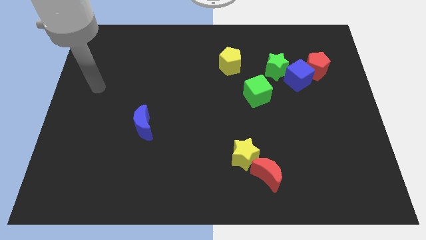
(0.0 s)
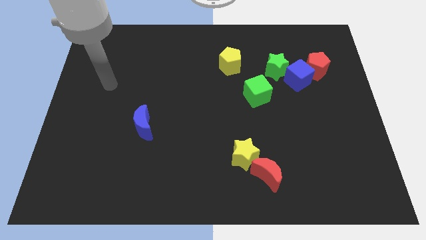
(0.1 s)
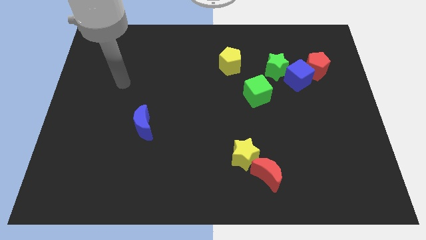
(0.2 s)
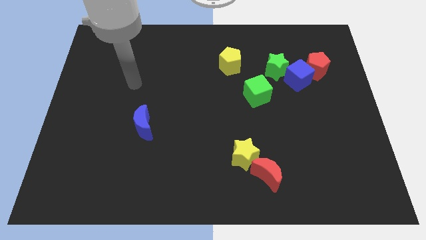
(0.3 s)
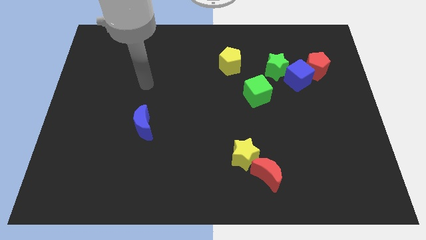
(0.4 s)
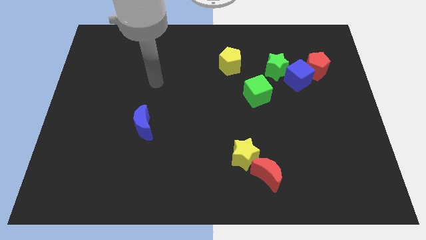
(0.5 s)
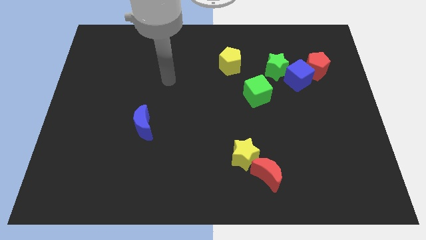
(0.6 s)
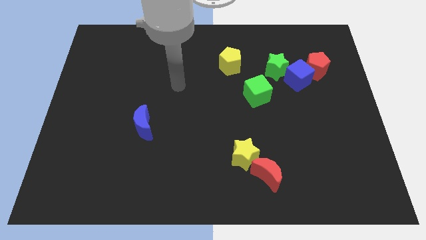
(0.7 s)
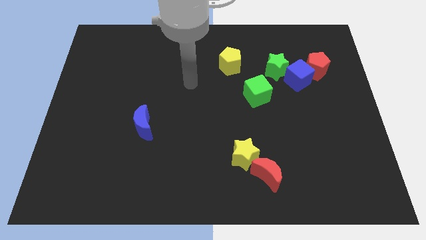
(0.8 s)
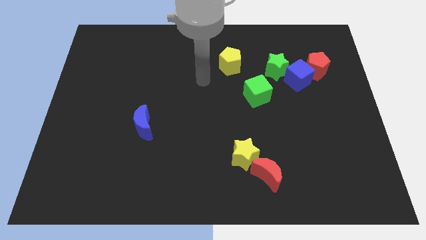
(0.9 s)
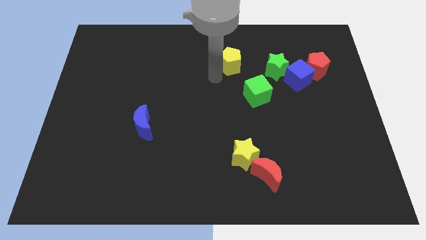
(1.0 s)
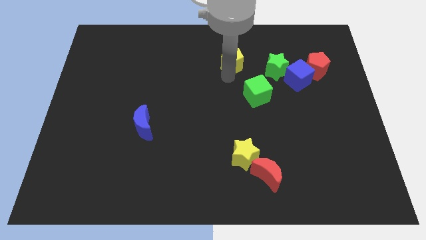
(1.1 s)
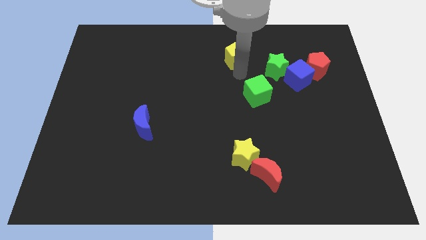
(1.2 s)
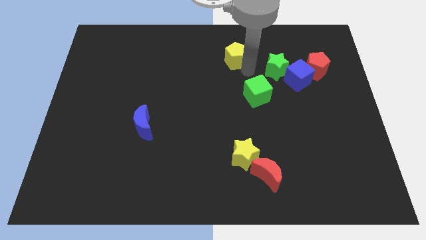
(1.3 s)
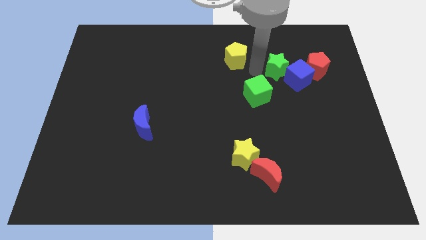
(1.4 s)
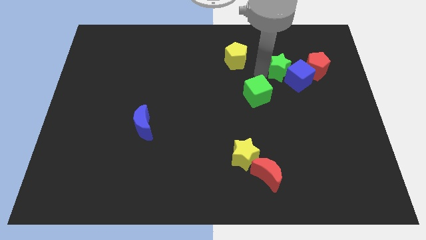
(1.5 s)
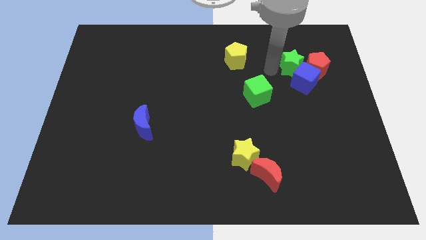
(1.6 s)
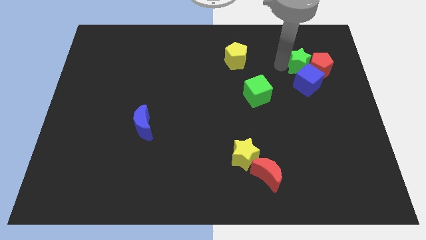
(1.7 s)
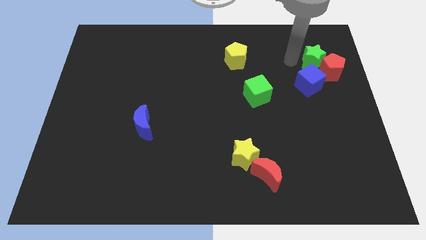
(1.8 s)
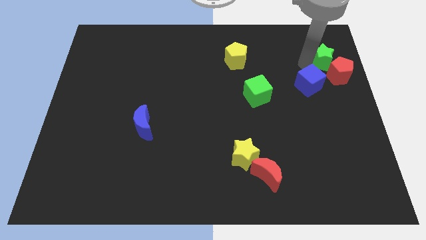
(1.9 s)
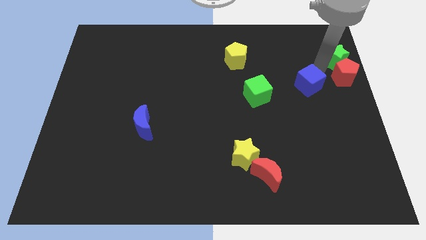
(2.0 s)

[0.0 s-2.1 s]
move the blue cube away from the red pentagon and green star

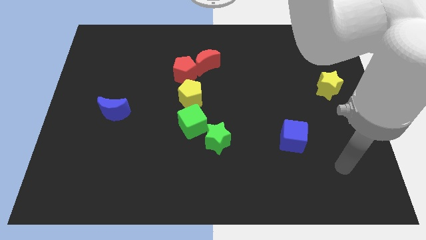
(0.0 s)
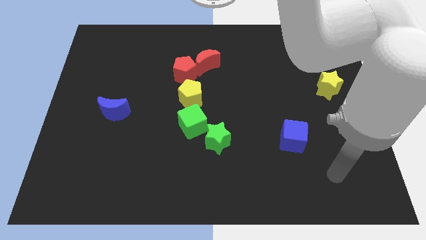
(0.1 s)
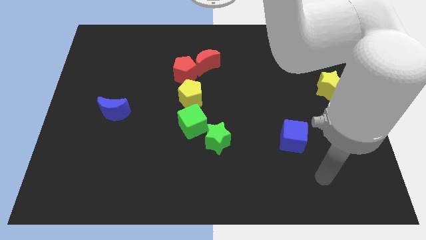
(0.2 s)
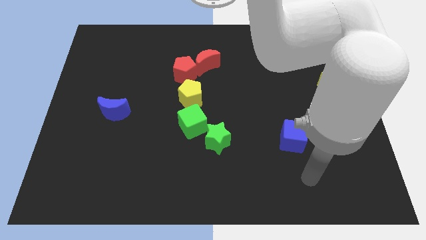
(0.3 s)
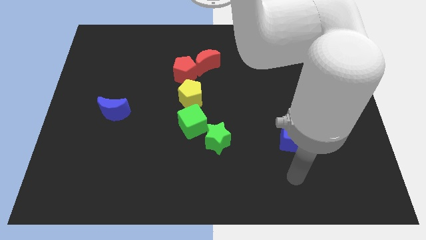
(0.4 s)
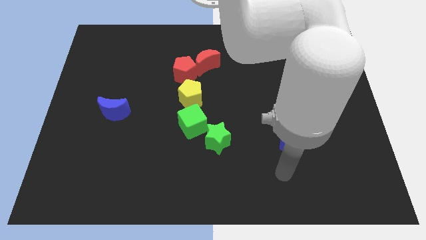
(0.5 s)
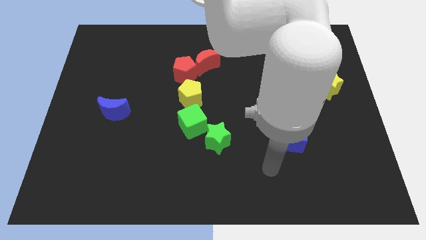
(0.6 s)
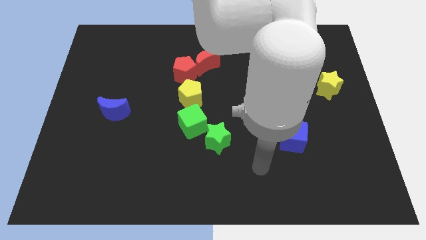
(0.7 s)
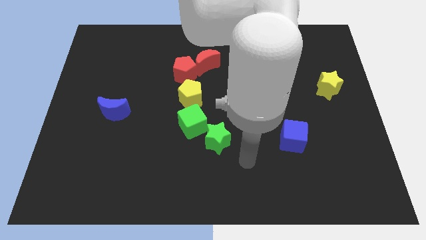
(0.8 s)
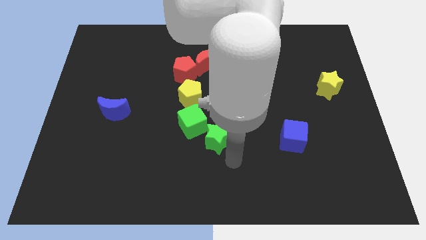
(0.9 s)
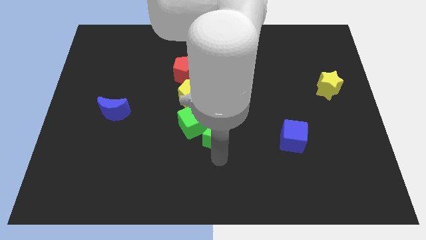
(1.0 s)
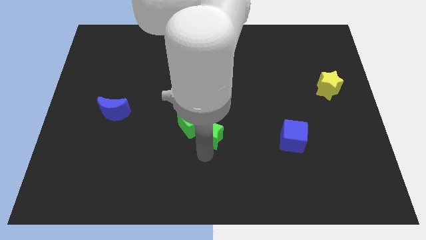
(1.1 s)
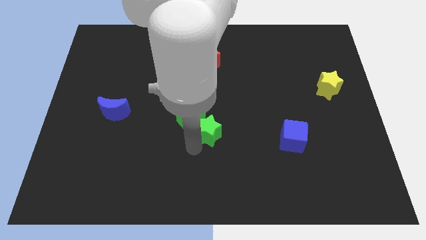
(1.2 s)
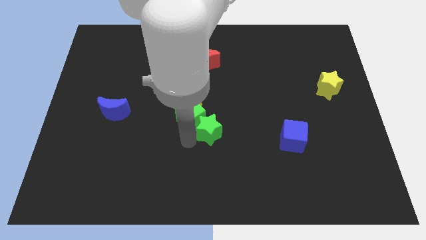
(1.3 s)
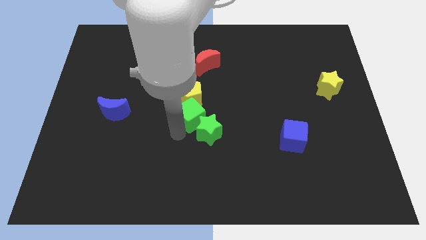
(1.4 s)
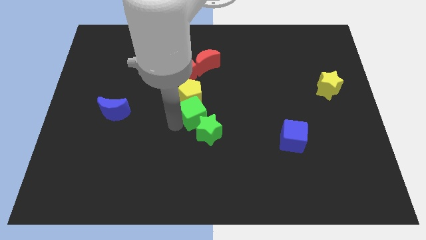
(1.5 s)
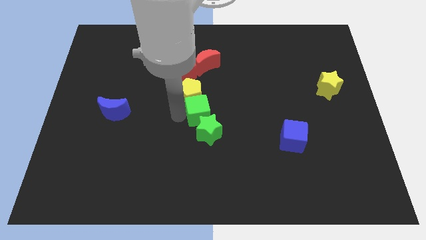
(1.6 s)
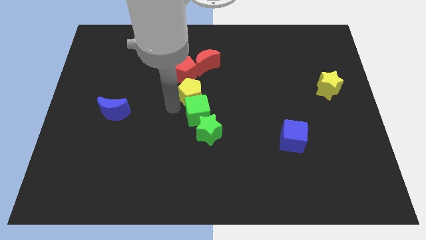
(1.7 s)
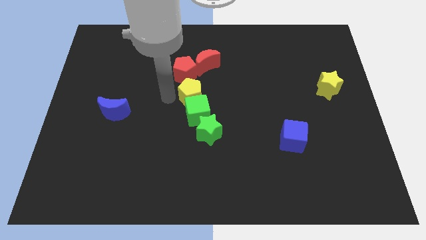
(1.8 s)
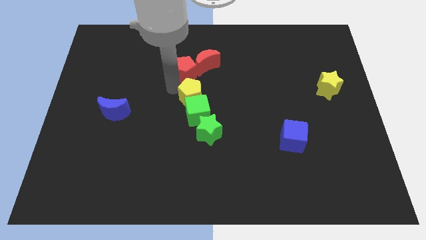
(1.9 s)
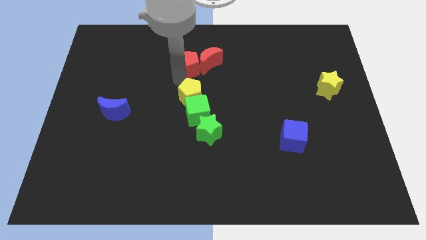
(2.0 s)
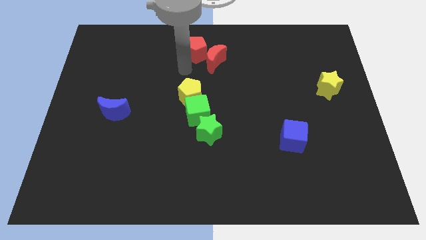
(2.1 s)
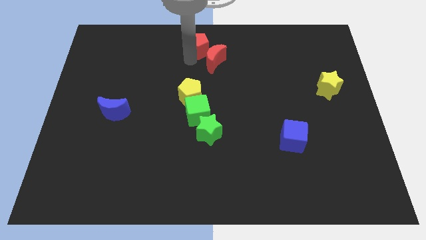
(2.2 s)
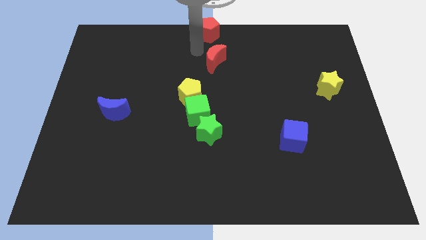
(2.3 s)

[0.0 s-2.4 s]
separate the red moon from the red pentagon

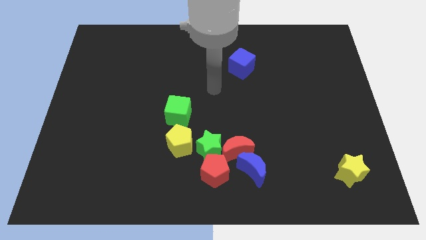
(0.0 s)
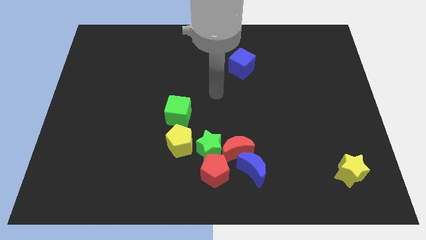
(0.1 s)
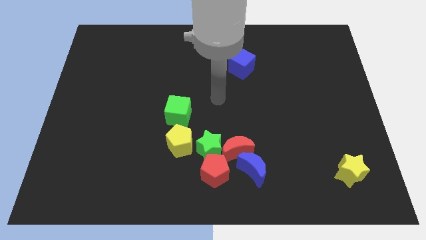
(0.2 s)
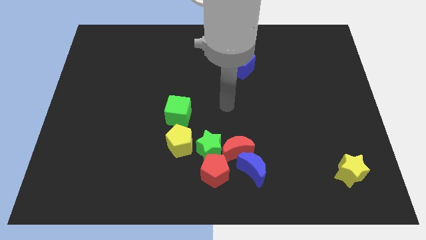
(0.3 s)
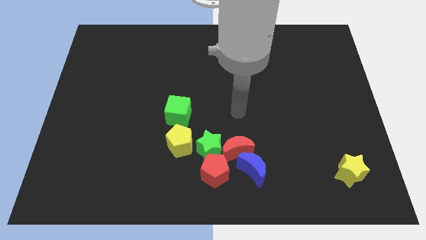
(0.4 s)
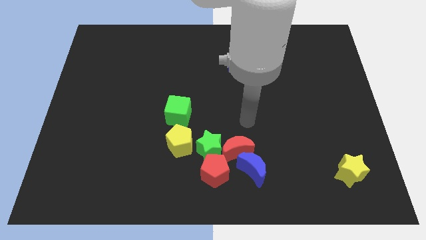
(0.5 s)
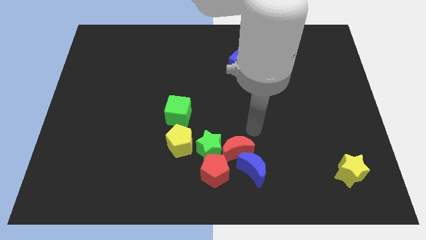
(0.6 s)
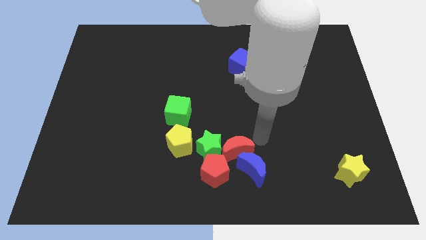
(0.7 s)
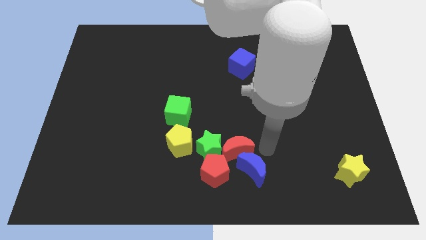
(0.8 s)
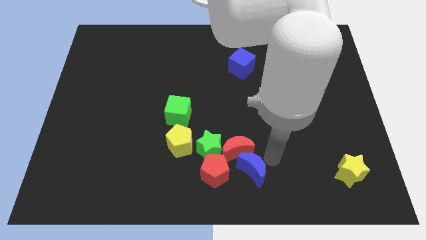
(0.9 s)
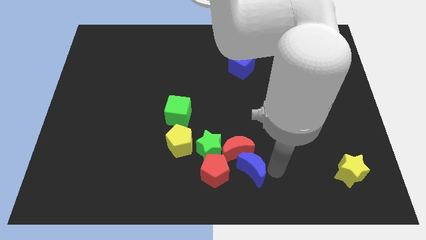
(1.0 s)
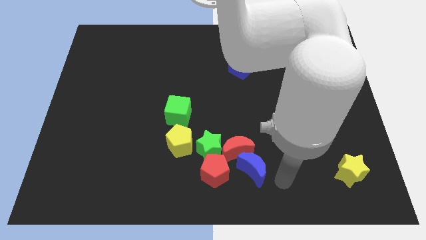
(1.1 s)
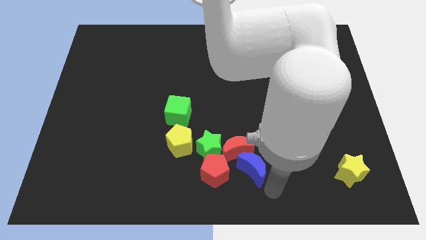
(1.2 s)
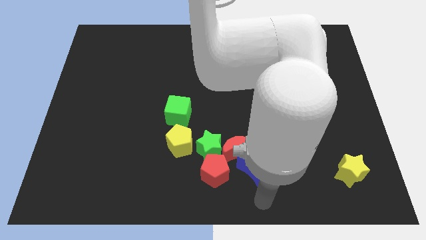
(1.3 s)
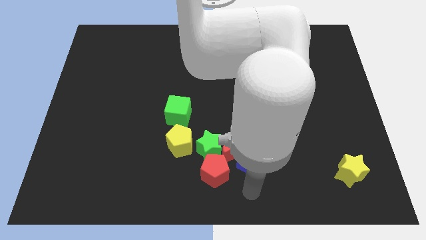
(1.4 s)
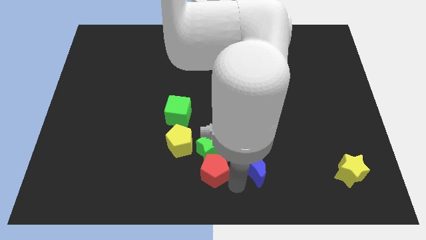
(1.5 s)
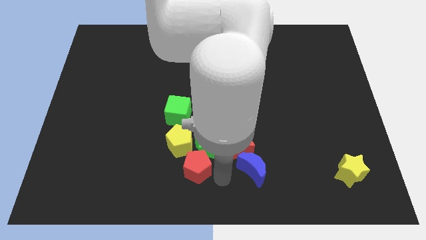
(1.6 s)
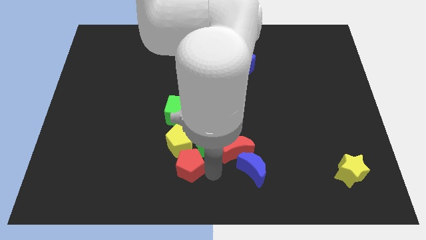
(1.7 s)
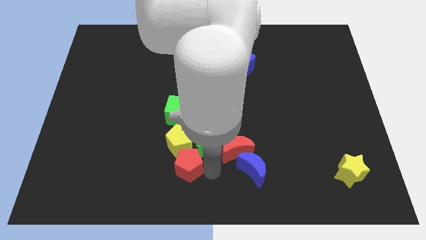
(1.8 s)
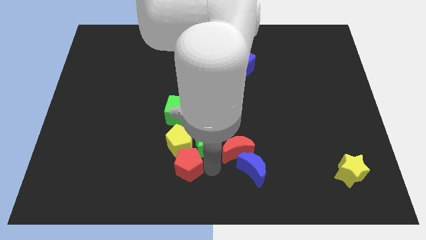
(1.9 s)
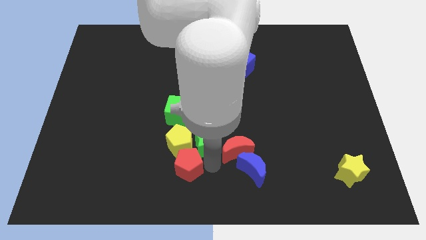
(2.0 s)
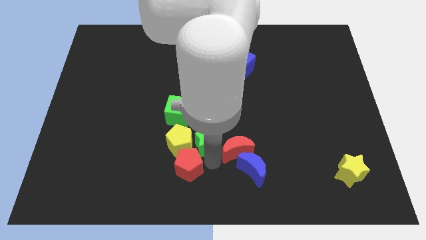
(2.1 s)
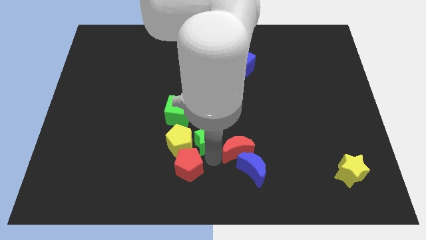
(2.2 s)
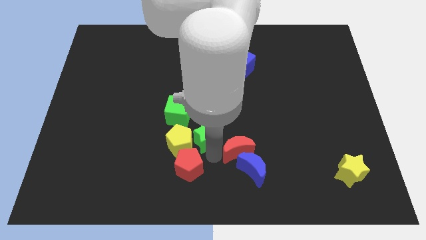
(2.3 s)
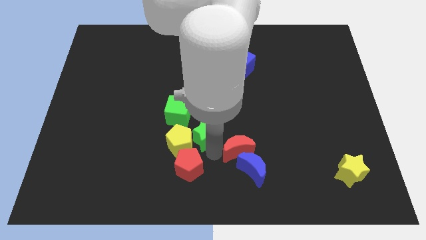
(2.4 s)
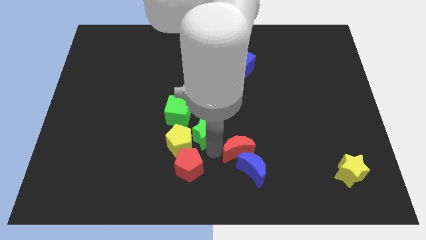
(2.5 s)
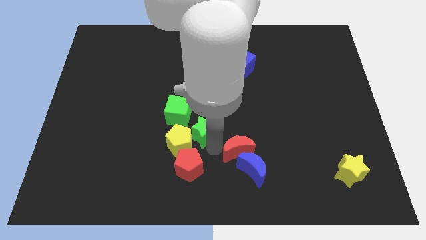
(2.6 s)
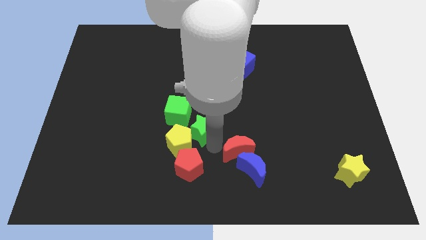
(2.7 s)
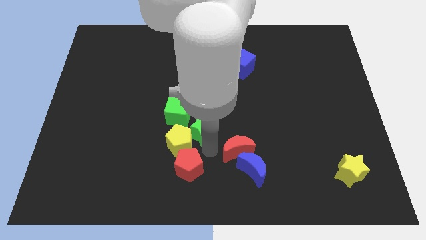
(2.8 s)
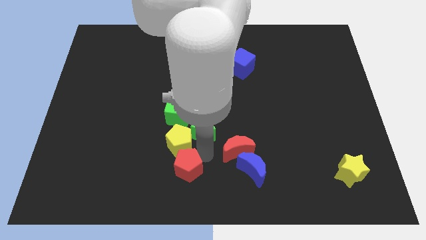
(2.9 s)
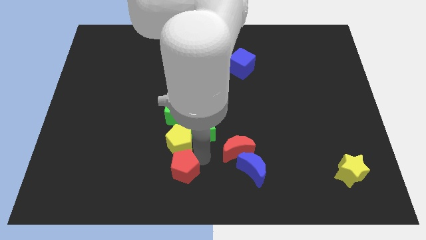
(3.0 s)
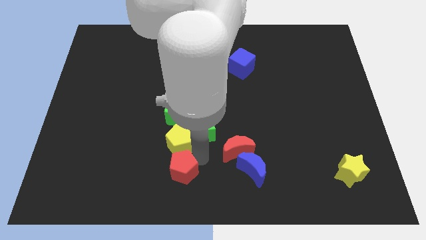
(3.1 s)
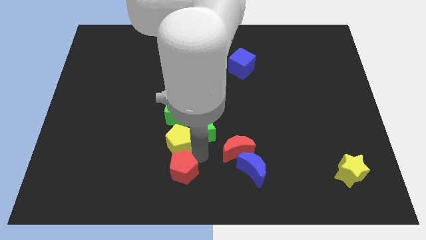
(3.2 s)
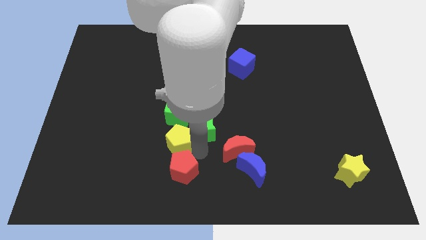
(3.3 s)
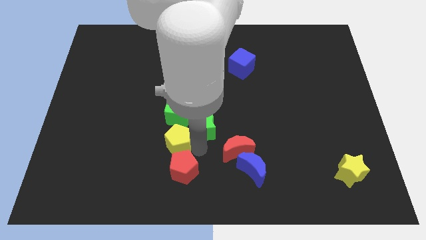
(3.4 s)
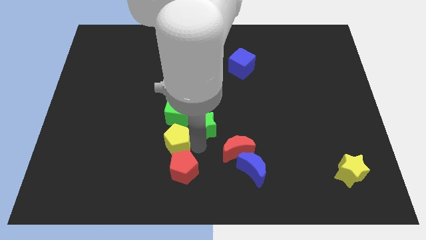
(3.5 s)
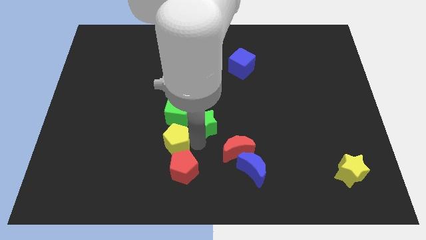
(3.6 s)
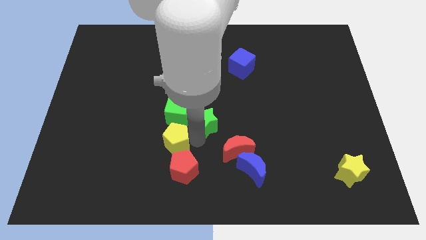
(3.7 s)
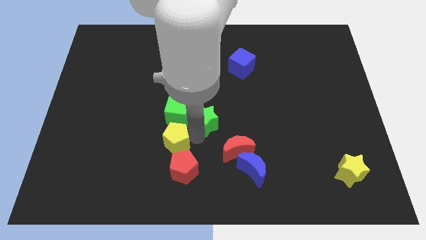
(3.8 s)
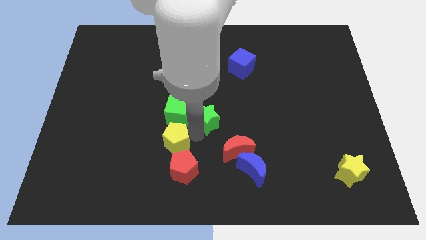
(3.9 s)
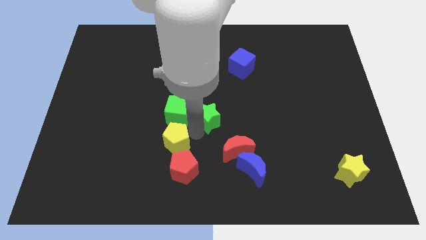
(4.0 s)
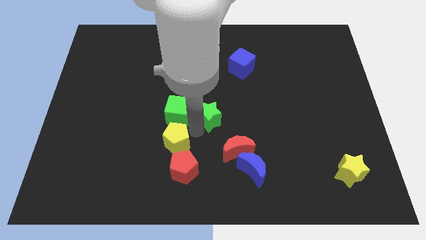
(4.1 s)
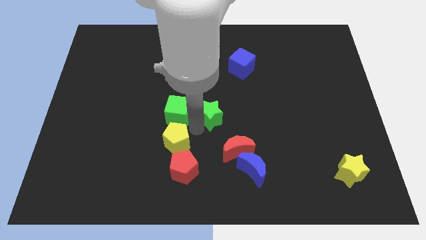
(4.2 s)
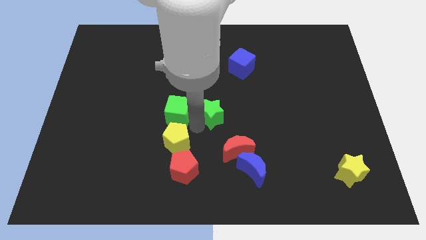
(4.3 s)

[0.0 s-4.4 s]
move the green star away from the group

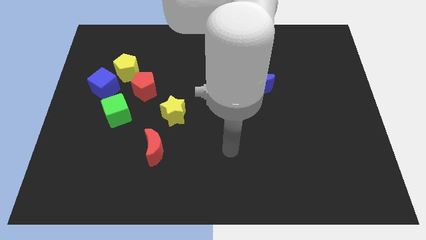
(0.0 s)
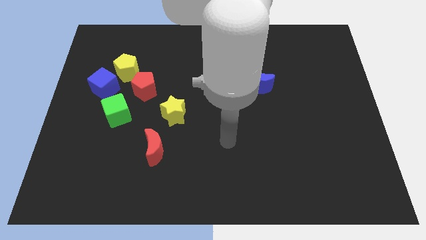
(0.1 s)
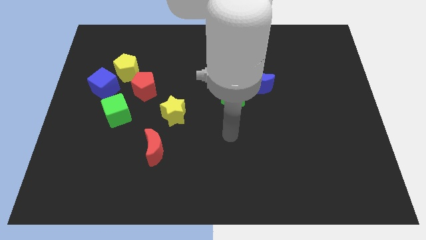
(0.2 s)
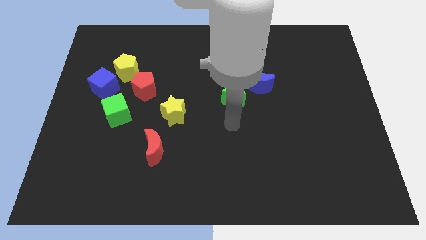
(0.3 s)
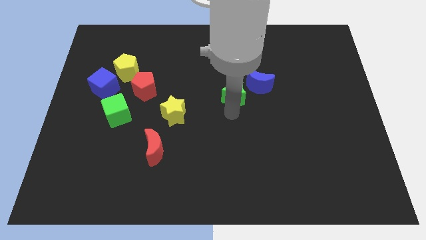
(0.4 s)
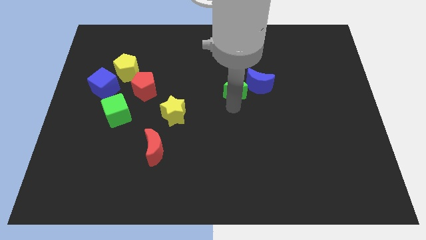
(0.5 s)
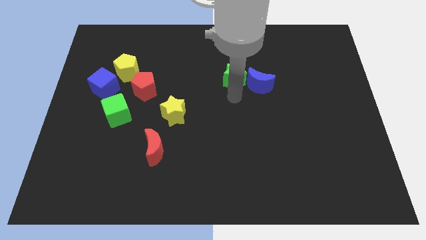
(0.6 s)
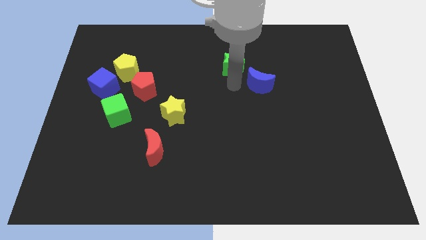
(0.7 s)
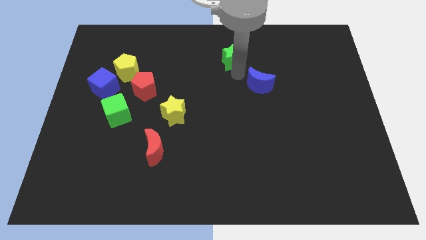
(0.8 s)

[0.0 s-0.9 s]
separate the blue moon from the green star
